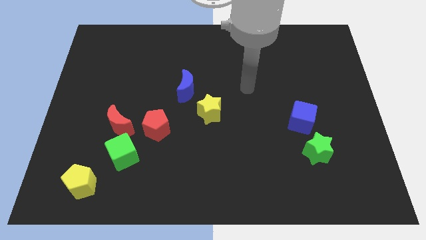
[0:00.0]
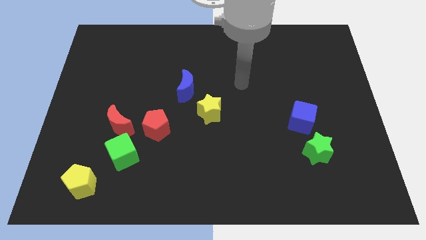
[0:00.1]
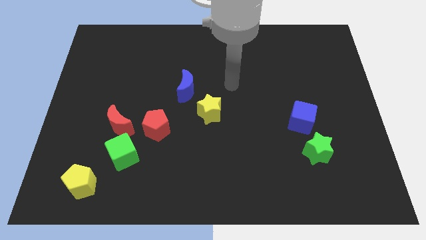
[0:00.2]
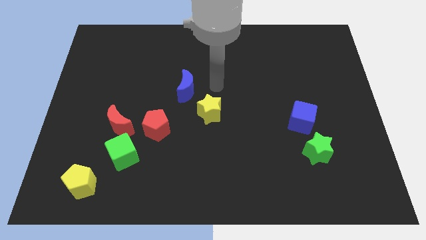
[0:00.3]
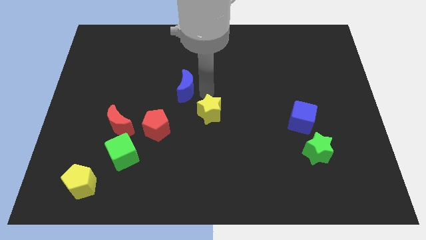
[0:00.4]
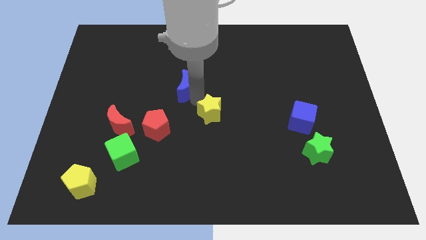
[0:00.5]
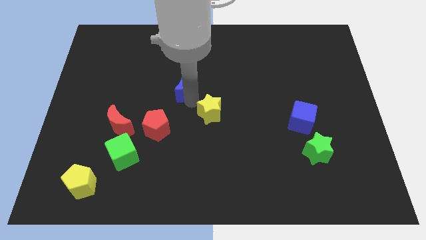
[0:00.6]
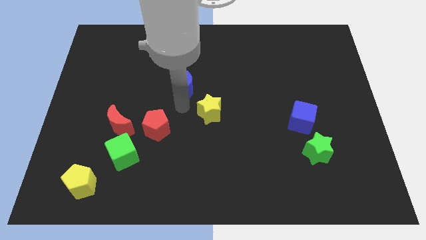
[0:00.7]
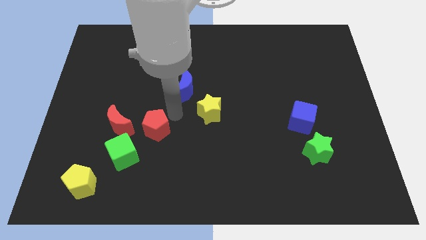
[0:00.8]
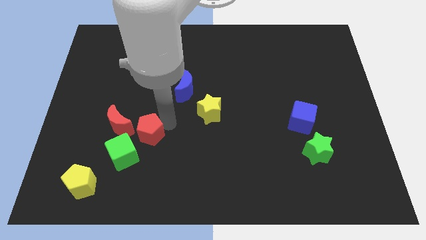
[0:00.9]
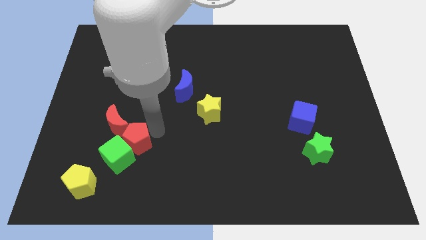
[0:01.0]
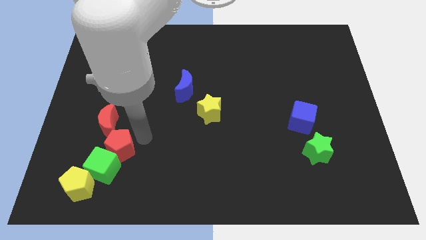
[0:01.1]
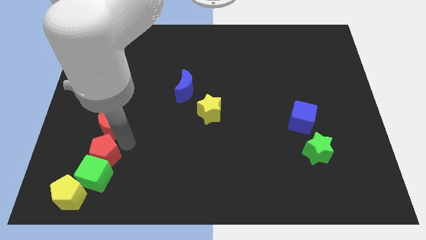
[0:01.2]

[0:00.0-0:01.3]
pull the red moon apart from the green cube and red pentagon

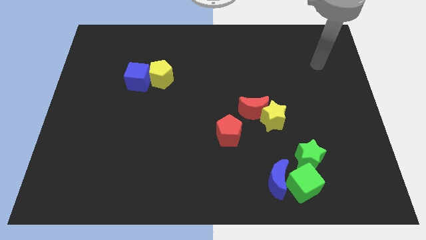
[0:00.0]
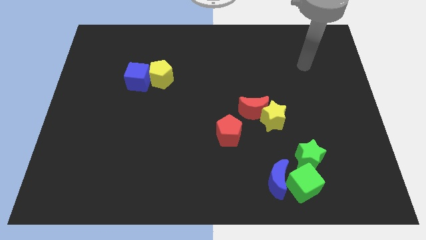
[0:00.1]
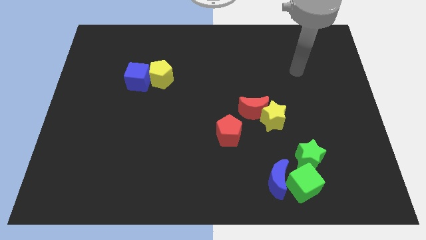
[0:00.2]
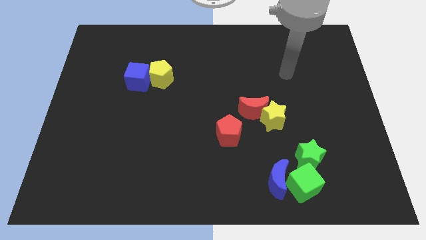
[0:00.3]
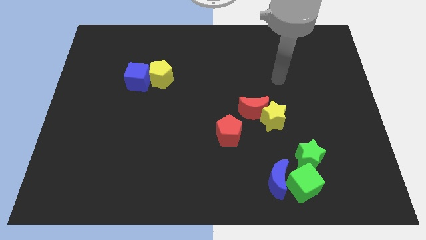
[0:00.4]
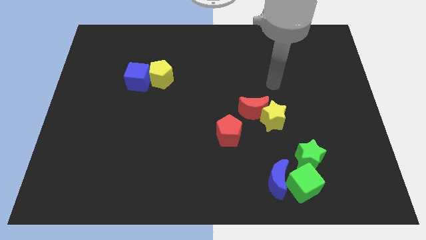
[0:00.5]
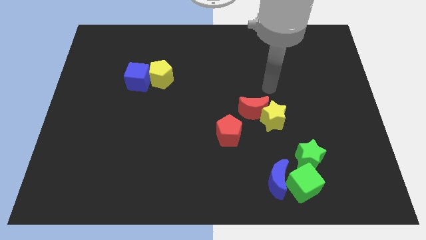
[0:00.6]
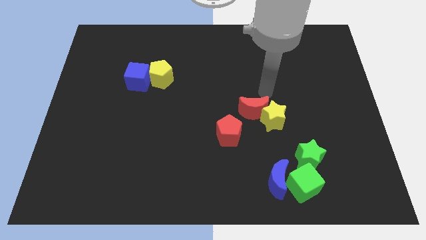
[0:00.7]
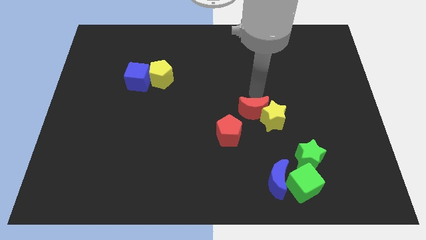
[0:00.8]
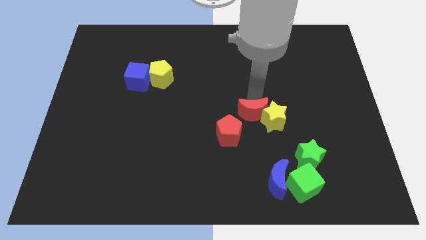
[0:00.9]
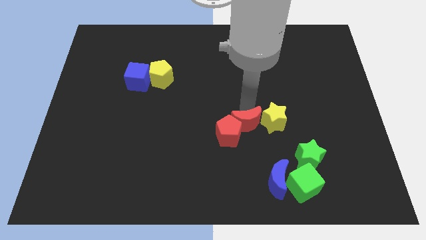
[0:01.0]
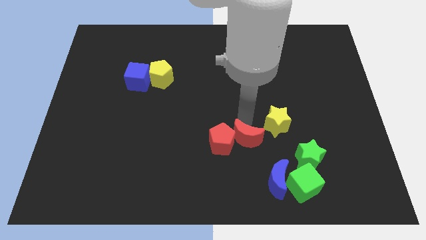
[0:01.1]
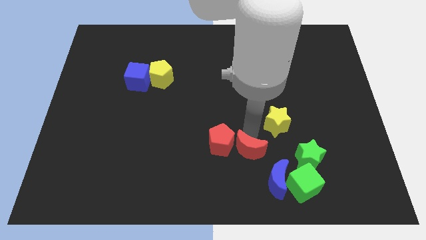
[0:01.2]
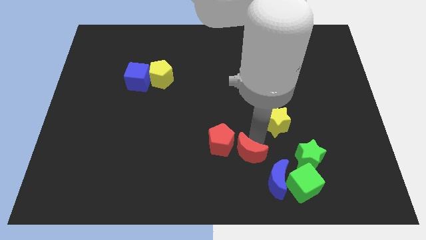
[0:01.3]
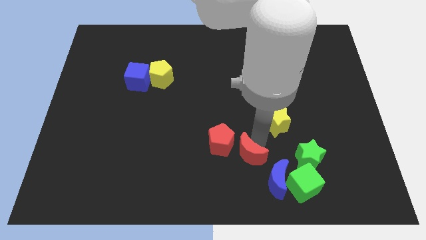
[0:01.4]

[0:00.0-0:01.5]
separate the yellow star from the red moon

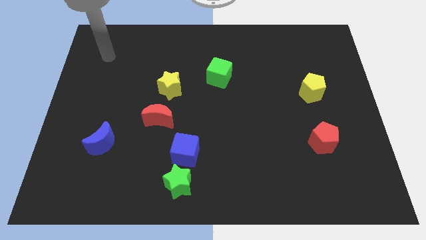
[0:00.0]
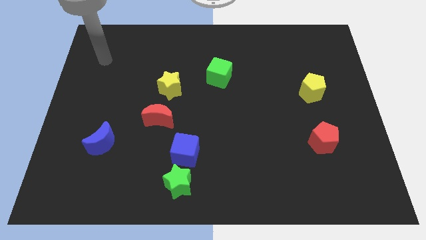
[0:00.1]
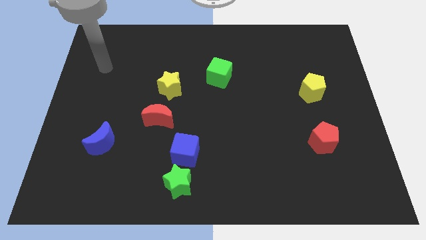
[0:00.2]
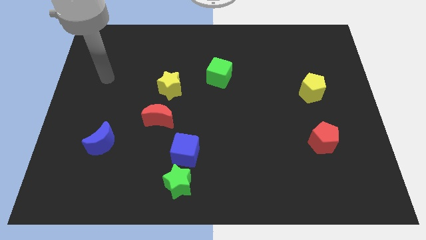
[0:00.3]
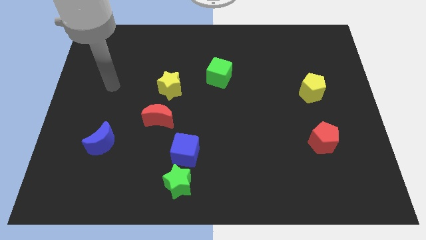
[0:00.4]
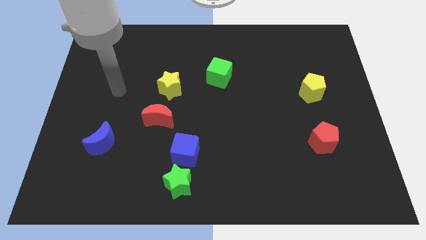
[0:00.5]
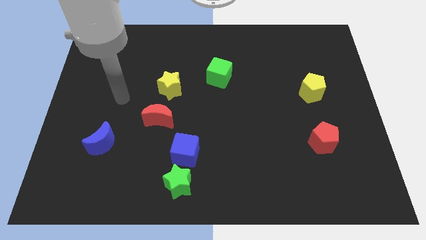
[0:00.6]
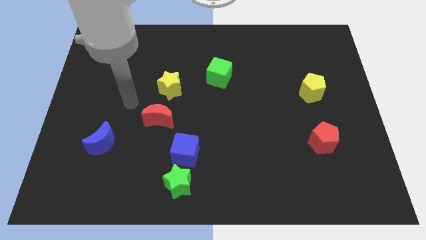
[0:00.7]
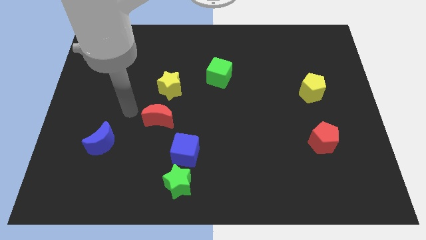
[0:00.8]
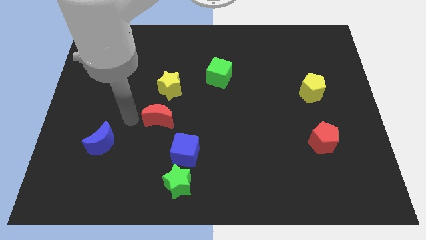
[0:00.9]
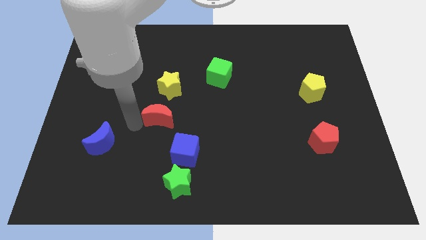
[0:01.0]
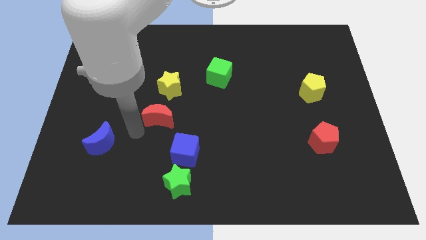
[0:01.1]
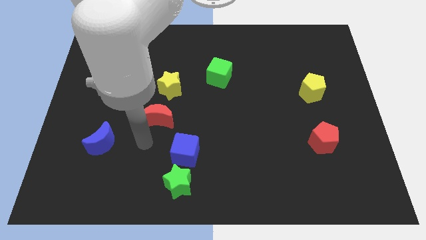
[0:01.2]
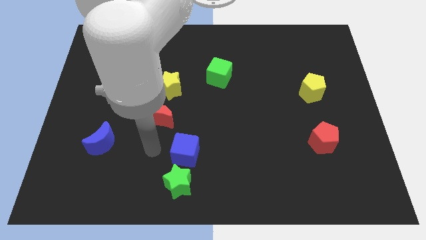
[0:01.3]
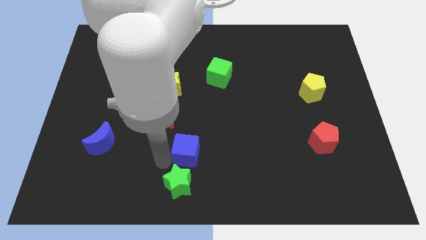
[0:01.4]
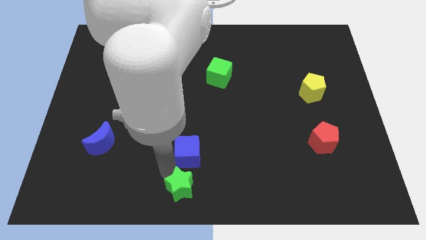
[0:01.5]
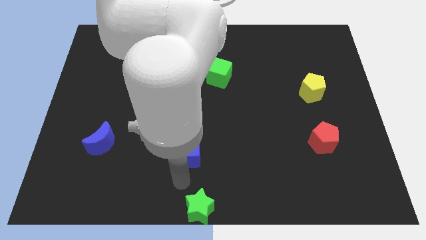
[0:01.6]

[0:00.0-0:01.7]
separate the blue cube from the green star

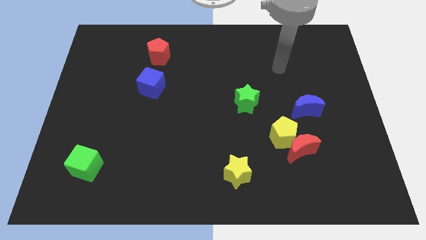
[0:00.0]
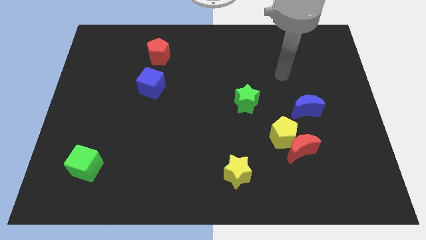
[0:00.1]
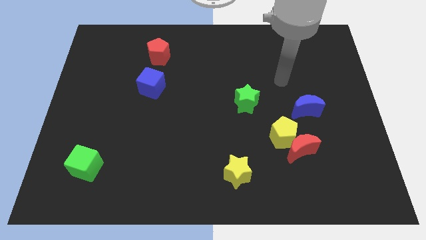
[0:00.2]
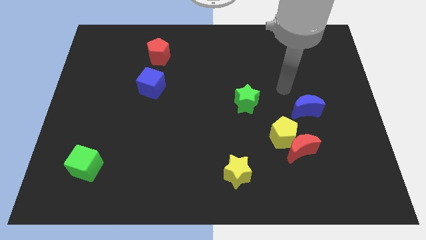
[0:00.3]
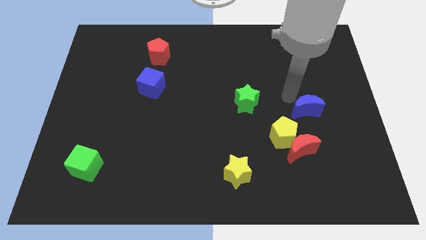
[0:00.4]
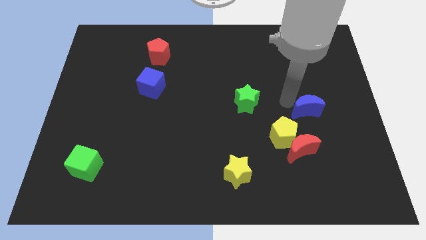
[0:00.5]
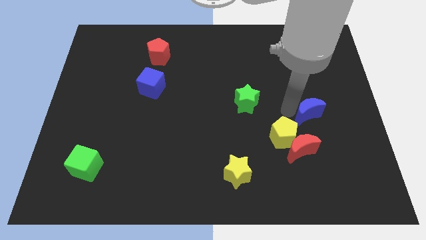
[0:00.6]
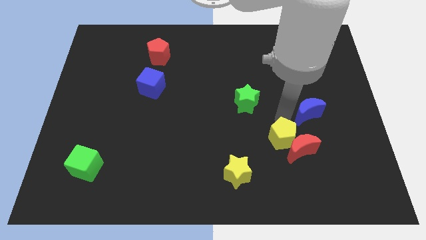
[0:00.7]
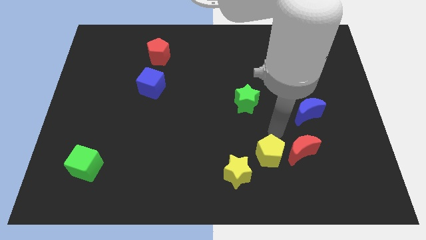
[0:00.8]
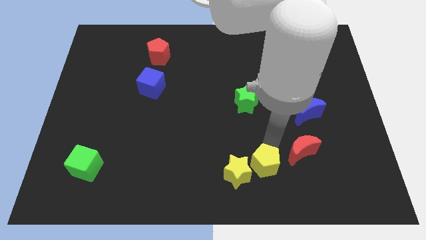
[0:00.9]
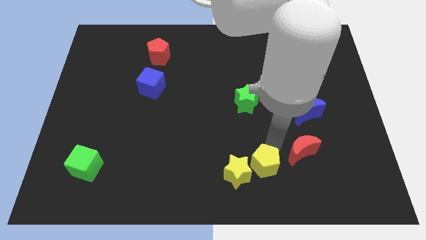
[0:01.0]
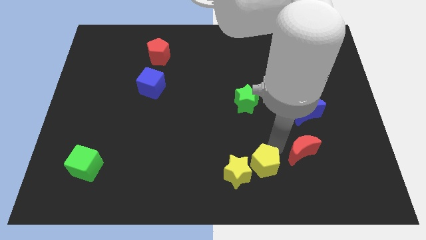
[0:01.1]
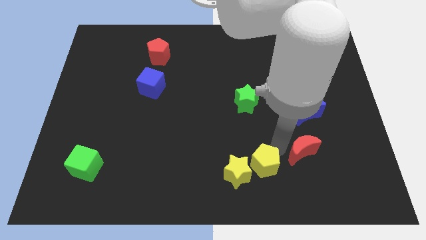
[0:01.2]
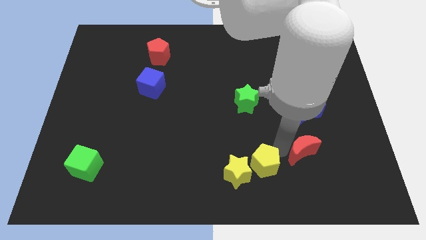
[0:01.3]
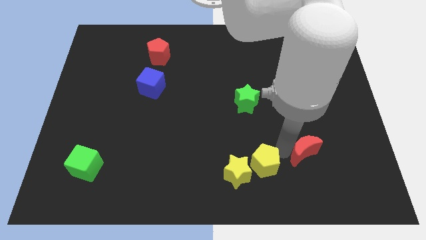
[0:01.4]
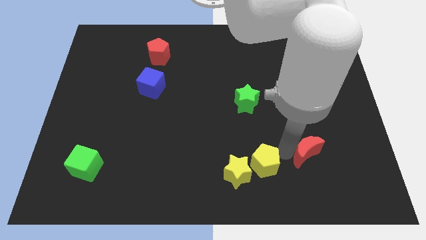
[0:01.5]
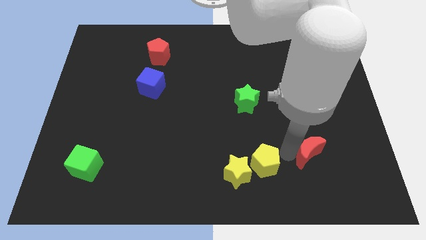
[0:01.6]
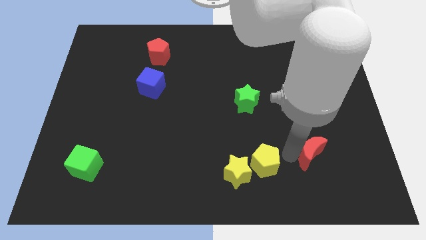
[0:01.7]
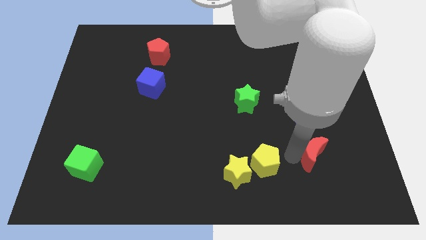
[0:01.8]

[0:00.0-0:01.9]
pull the red moon apart from the yellow pentagon

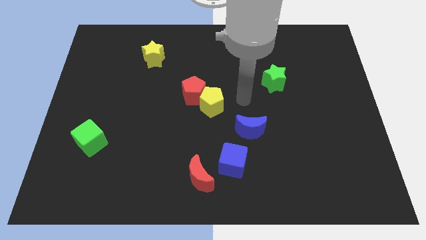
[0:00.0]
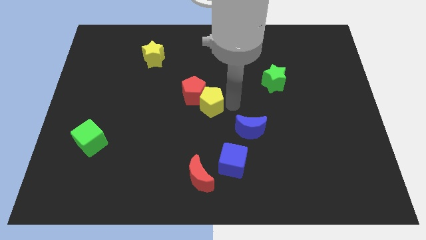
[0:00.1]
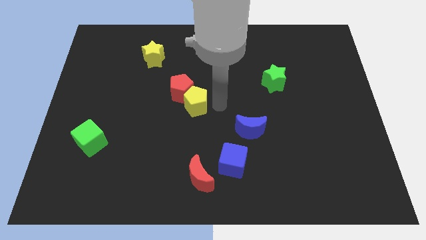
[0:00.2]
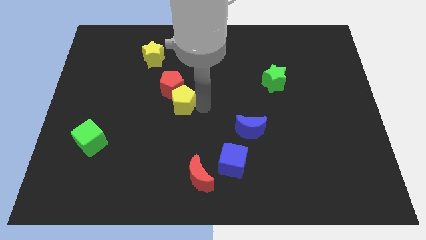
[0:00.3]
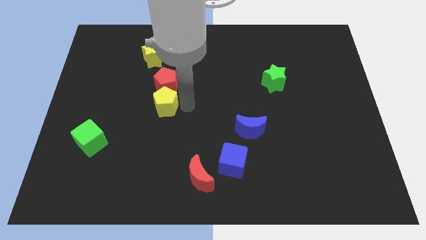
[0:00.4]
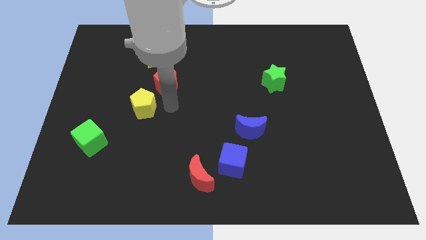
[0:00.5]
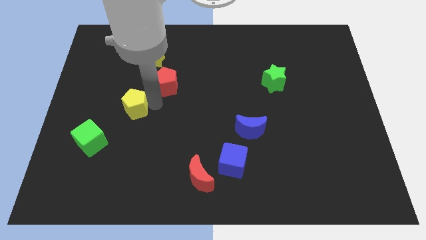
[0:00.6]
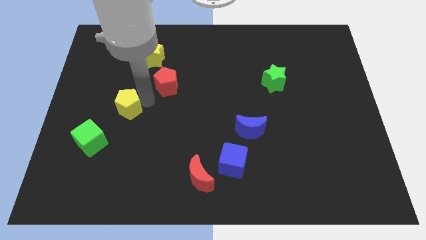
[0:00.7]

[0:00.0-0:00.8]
move the red pentagon away from the yellow pentagon

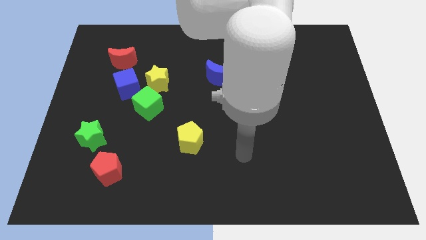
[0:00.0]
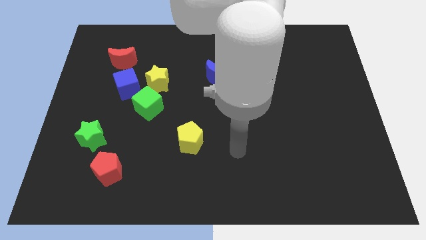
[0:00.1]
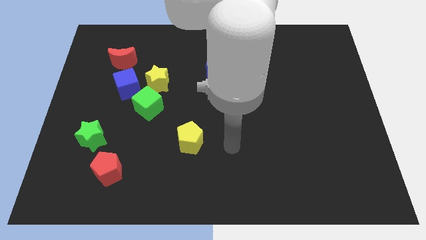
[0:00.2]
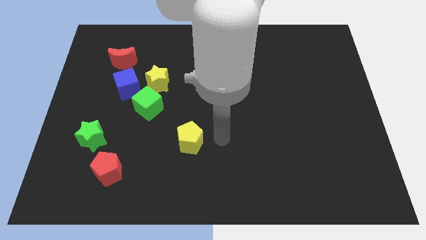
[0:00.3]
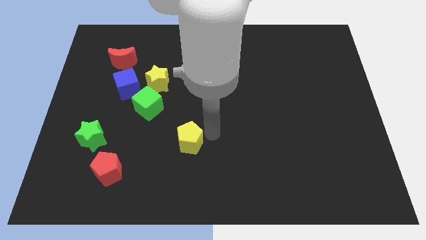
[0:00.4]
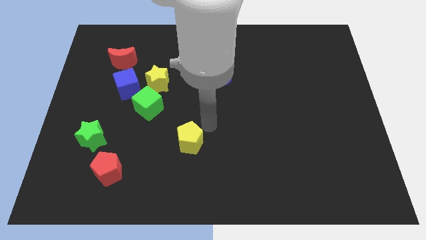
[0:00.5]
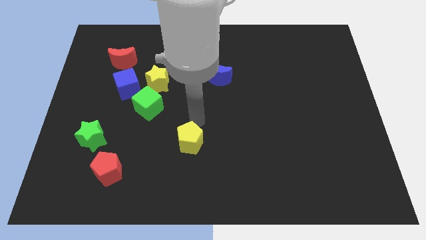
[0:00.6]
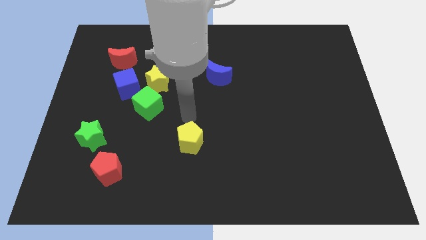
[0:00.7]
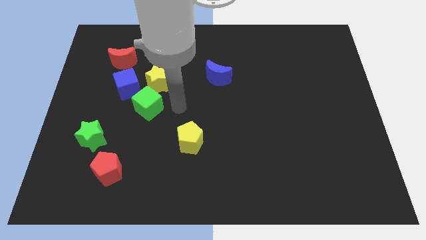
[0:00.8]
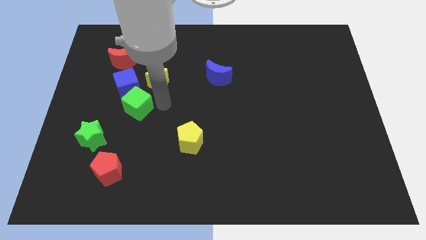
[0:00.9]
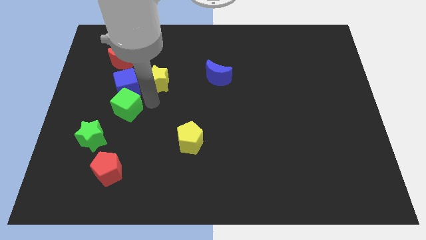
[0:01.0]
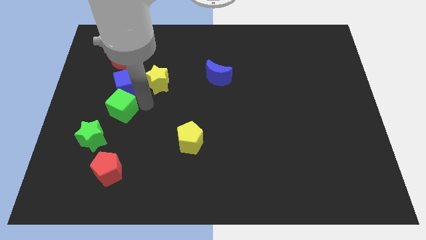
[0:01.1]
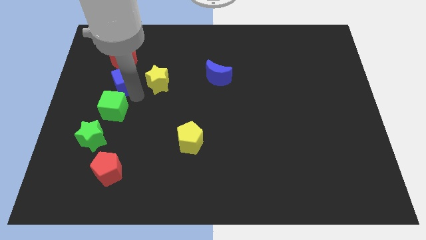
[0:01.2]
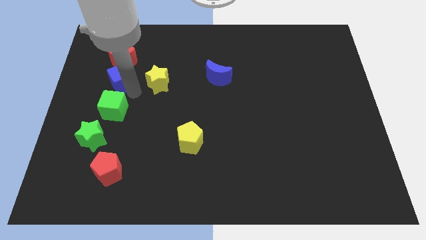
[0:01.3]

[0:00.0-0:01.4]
move the yellow star away from the blue cube and green cube

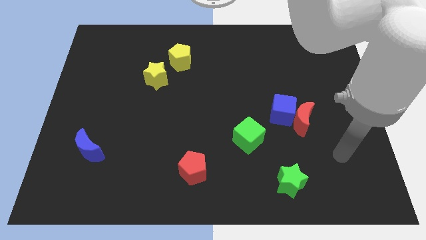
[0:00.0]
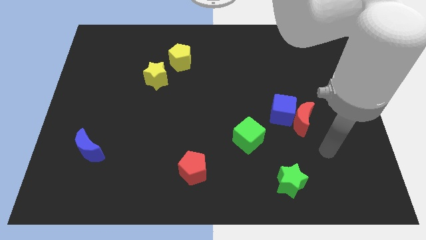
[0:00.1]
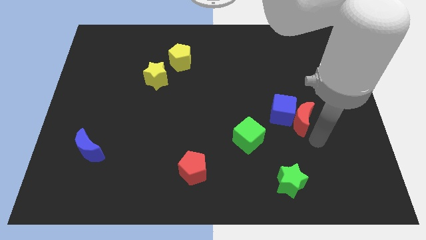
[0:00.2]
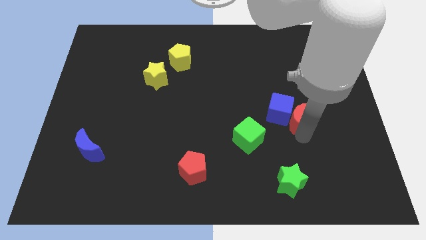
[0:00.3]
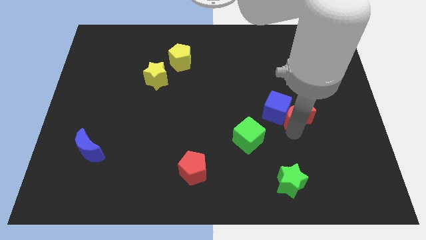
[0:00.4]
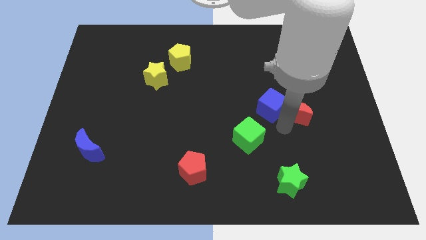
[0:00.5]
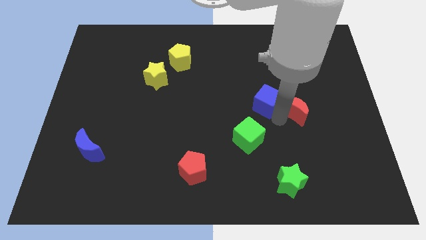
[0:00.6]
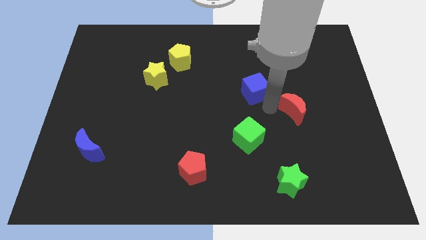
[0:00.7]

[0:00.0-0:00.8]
move the red moon away from the blue cube
